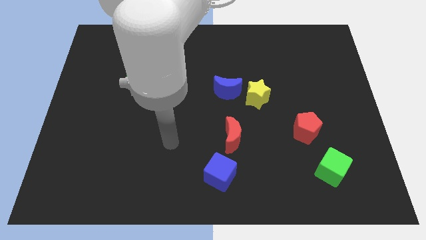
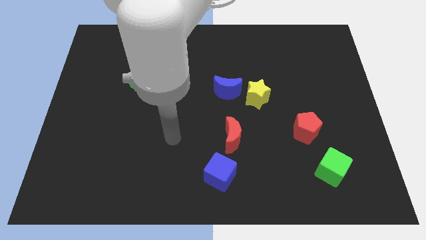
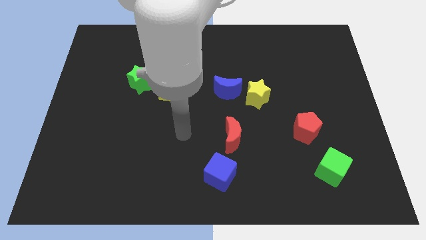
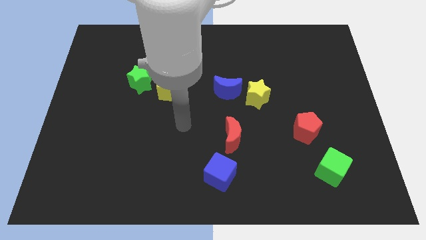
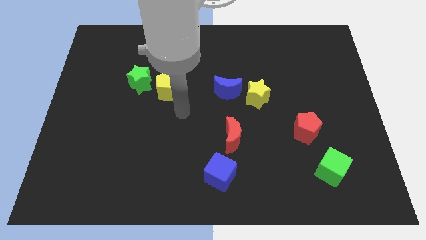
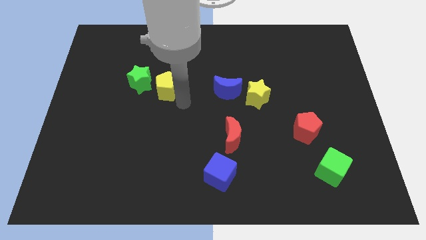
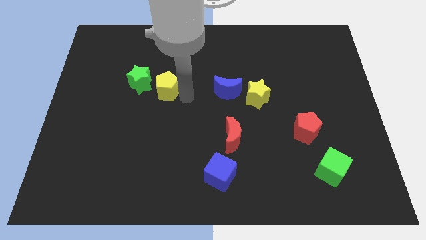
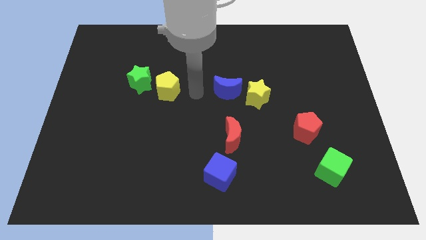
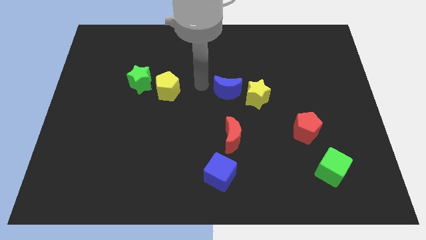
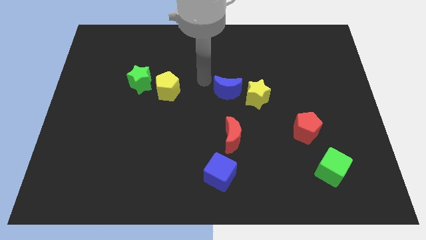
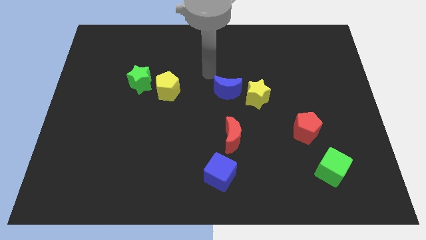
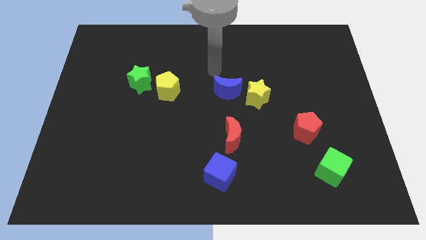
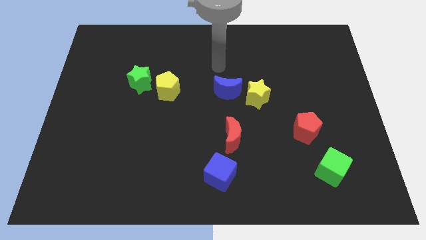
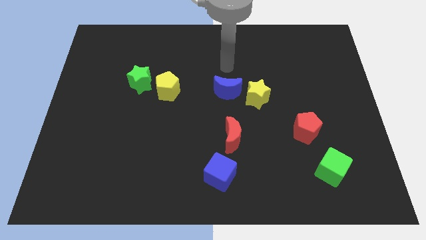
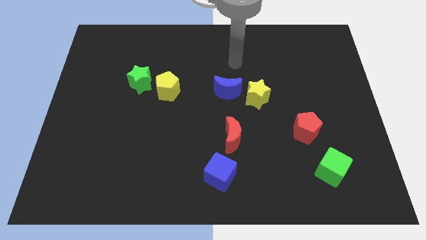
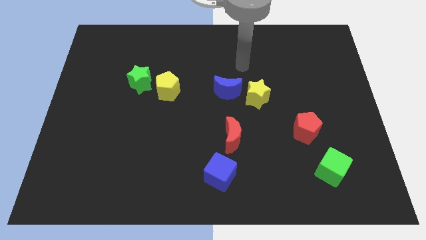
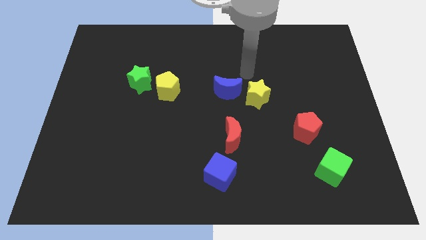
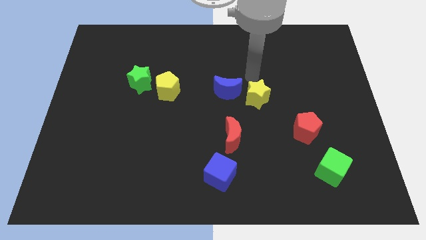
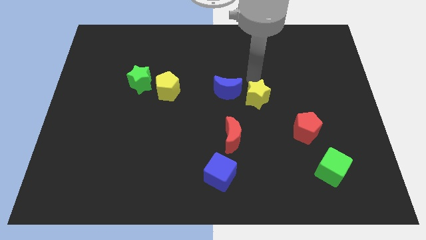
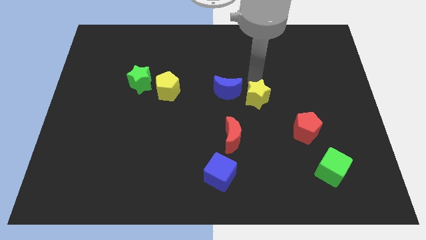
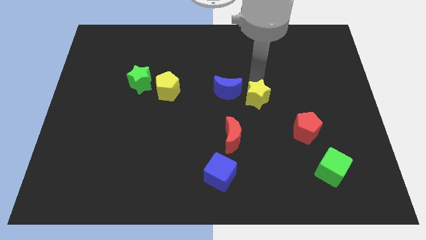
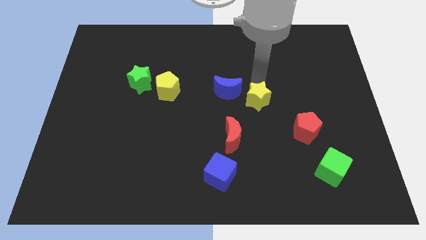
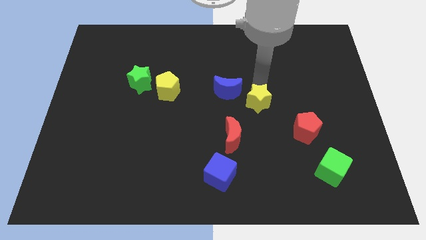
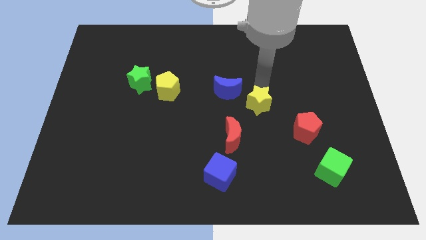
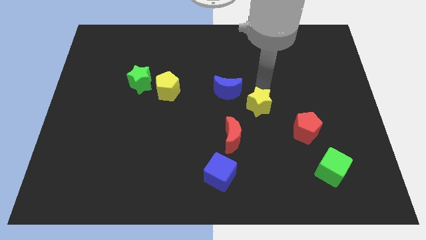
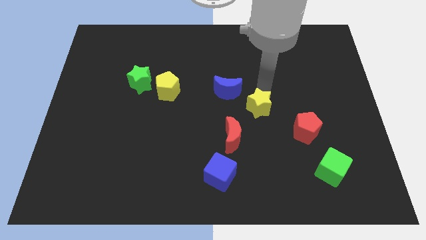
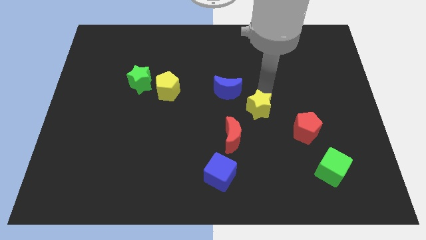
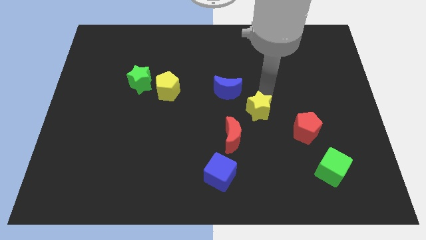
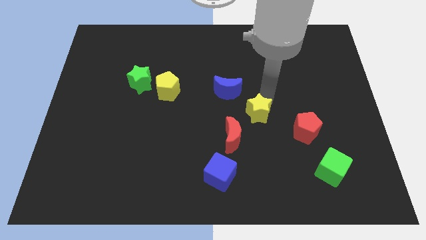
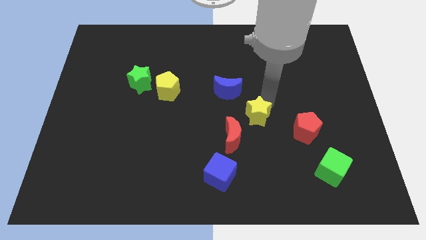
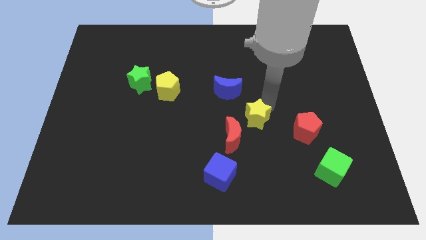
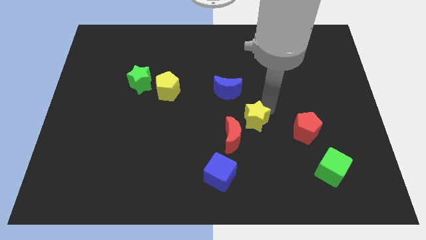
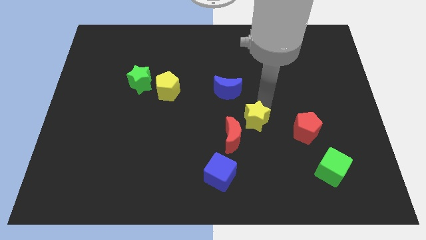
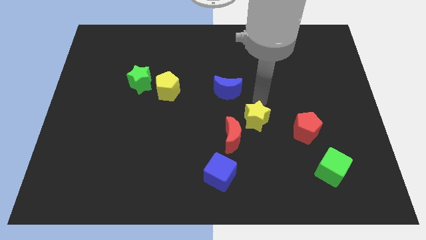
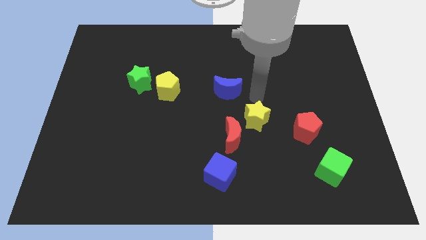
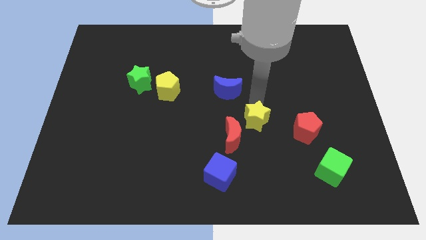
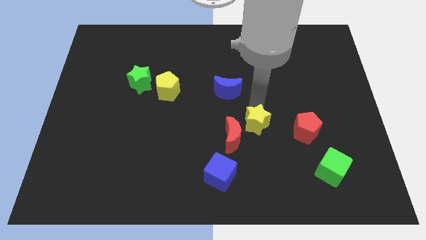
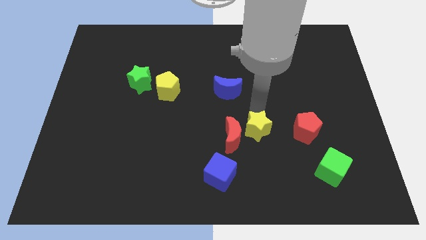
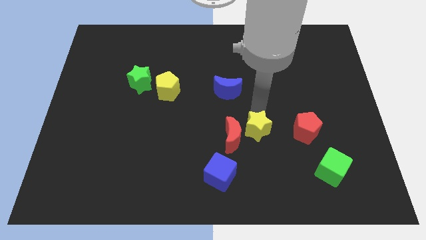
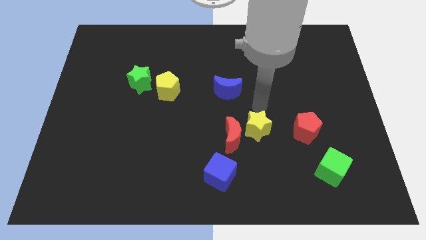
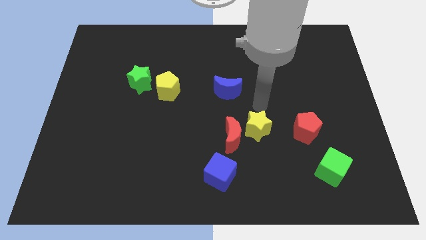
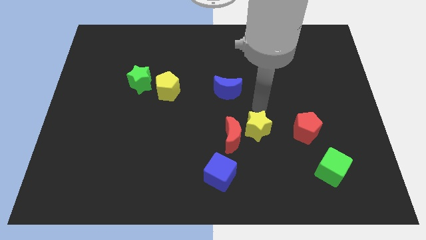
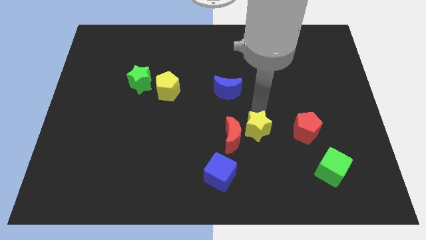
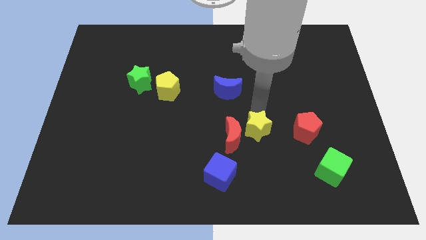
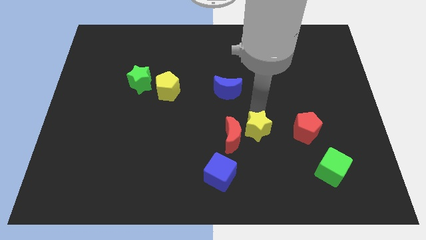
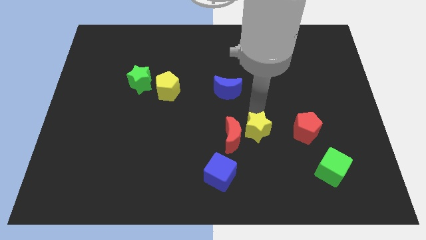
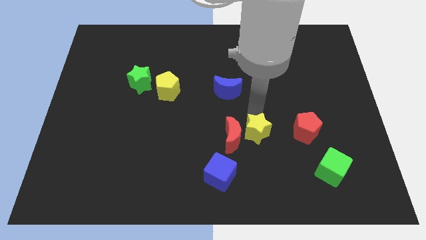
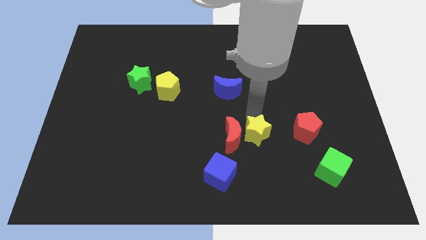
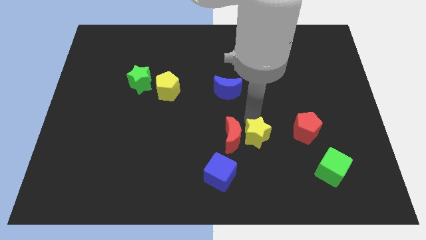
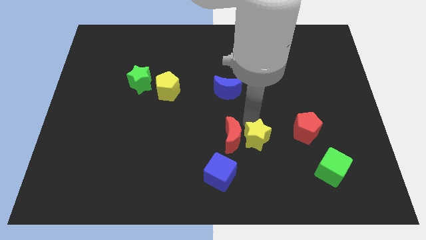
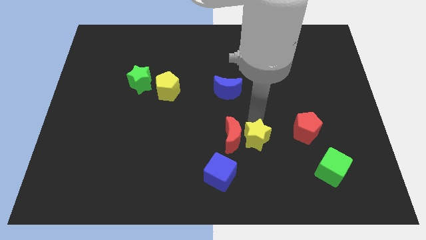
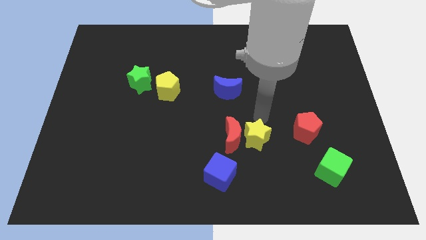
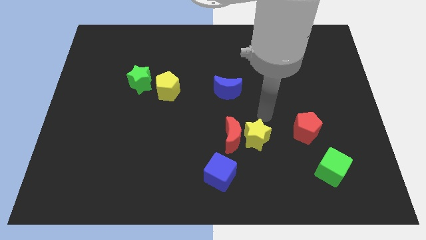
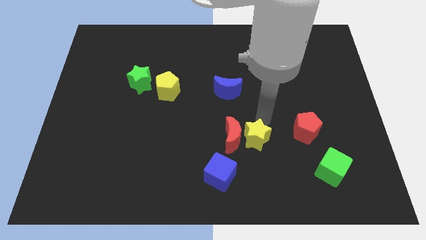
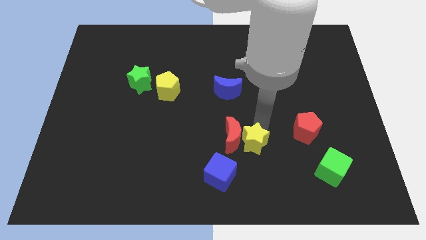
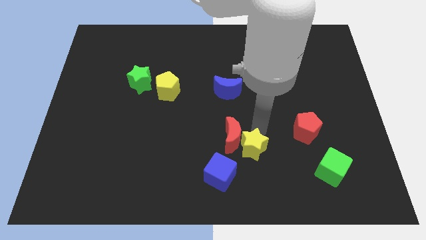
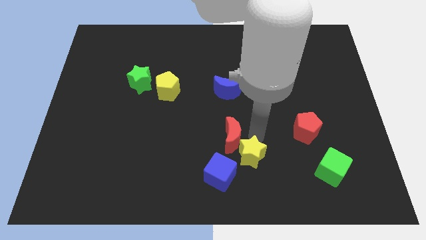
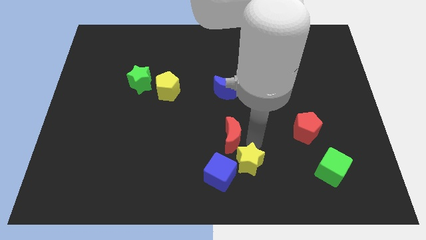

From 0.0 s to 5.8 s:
put the yellow star to the bottom side
